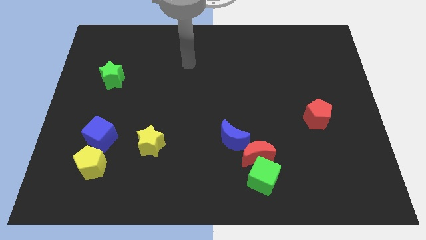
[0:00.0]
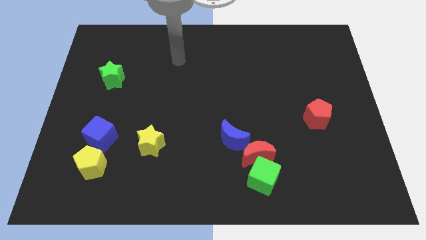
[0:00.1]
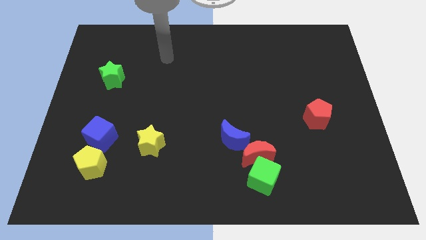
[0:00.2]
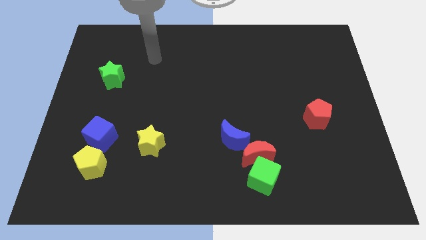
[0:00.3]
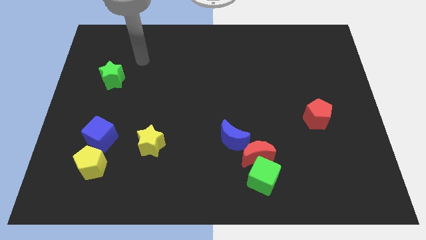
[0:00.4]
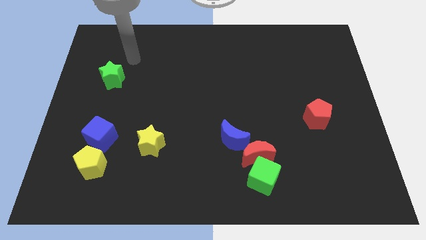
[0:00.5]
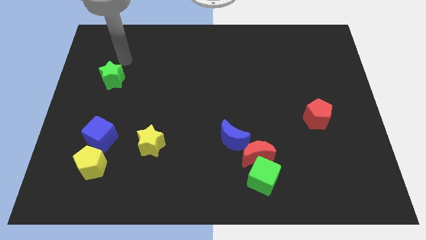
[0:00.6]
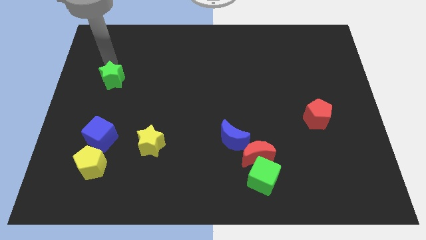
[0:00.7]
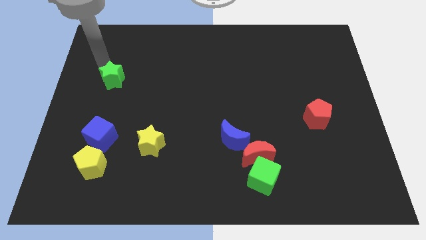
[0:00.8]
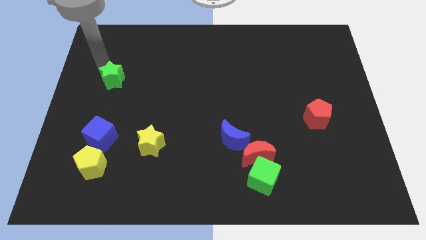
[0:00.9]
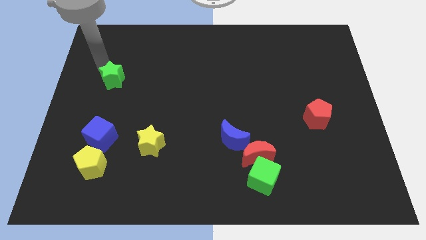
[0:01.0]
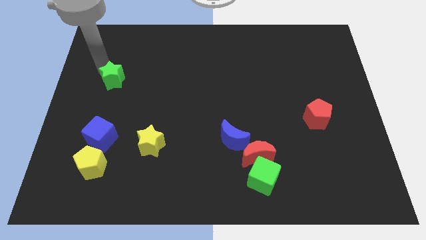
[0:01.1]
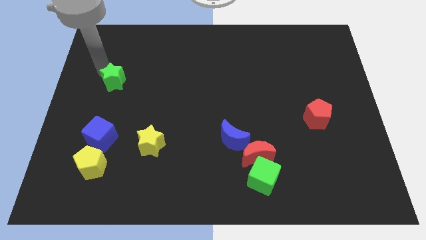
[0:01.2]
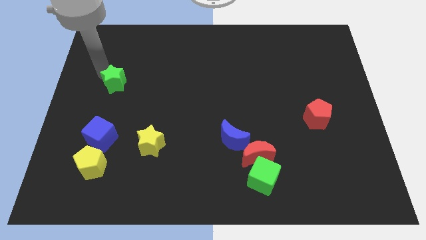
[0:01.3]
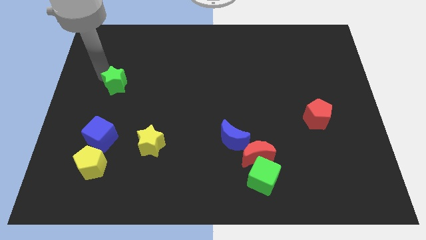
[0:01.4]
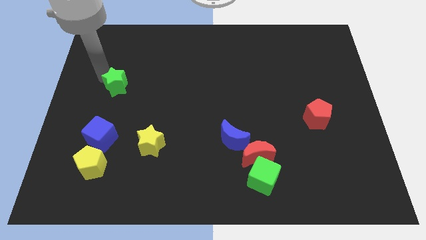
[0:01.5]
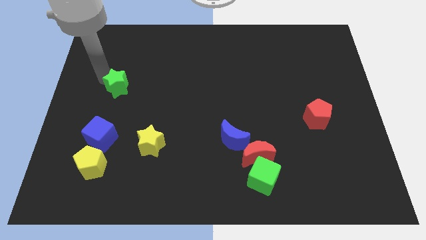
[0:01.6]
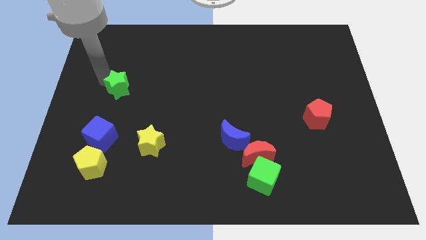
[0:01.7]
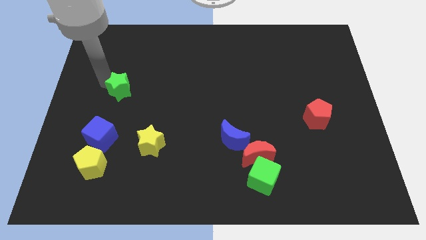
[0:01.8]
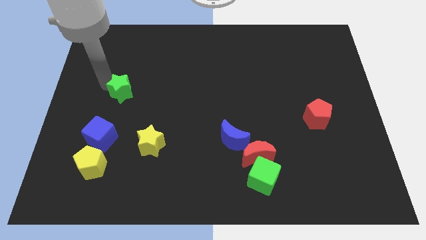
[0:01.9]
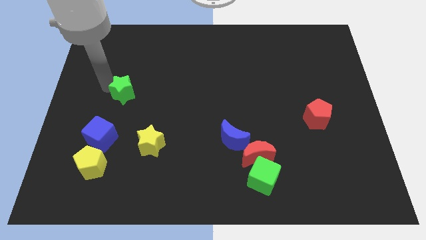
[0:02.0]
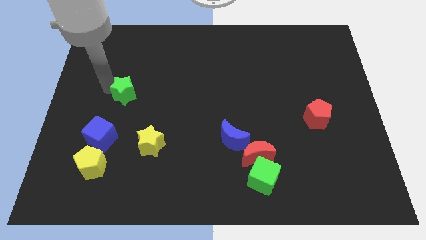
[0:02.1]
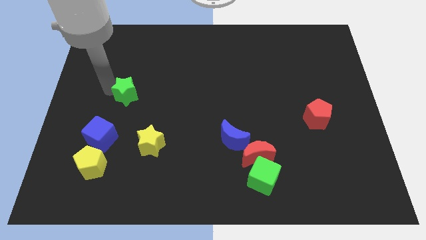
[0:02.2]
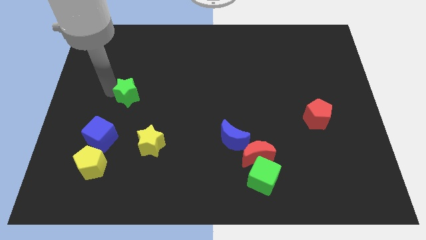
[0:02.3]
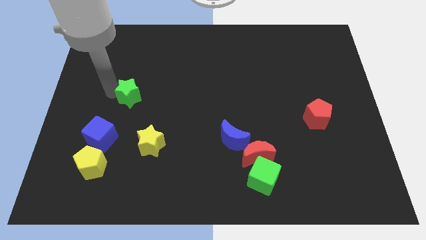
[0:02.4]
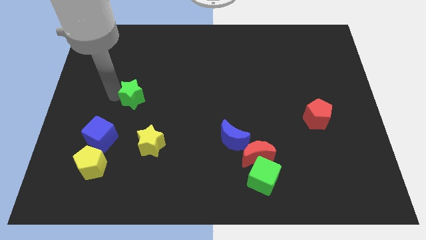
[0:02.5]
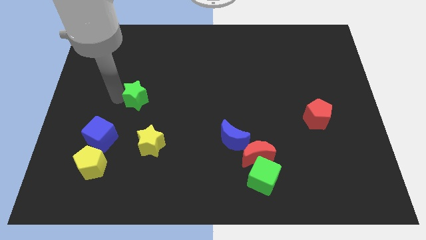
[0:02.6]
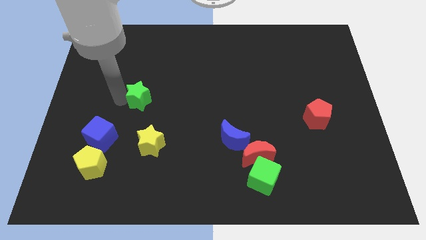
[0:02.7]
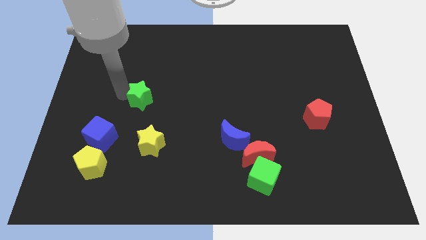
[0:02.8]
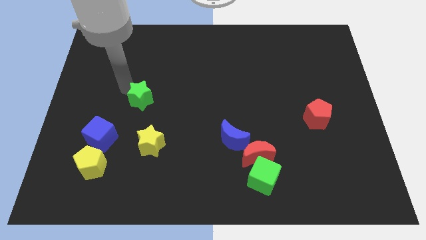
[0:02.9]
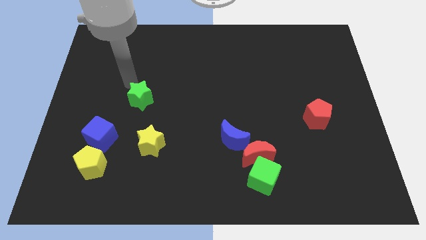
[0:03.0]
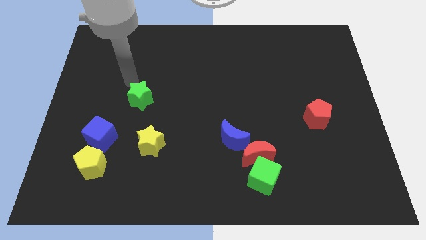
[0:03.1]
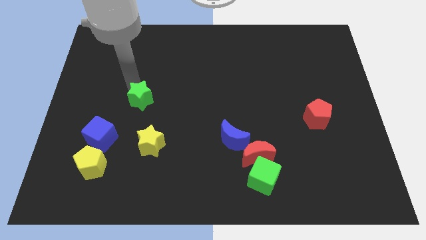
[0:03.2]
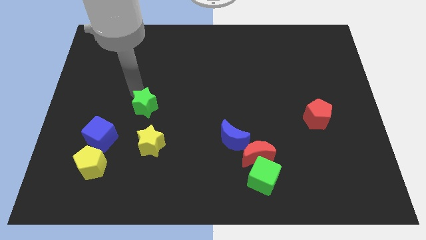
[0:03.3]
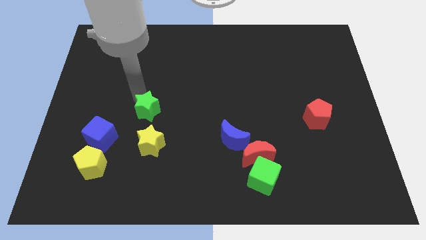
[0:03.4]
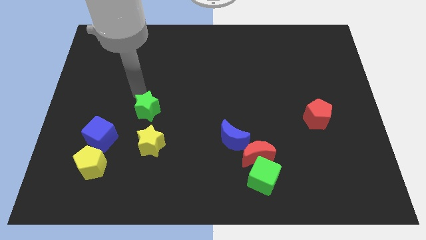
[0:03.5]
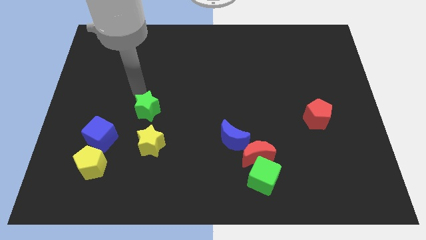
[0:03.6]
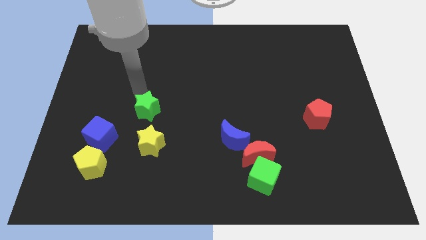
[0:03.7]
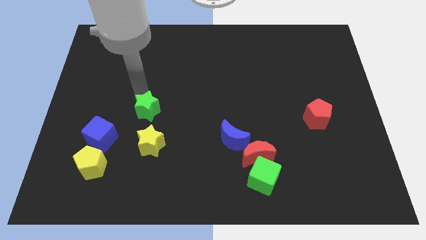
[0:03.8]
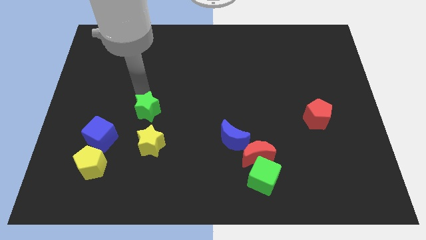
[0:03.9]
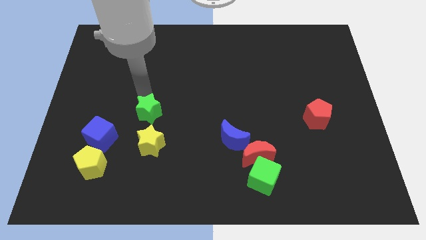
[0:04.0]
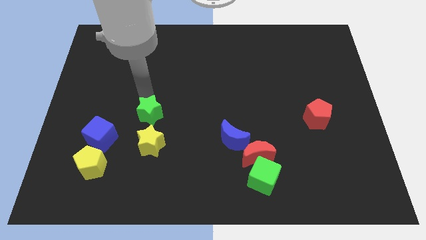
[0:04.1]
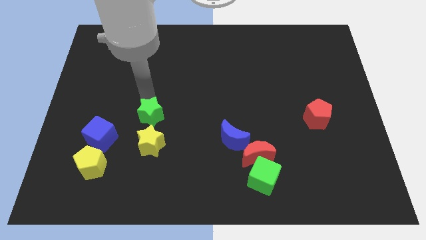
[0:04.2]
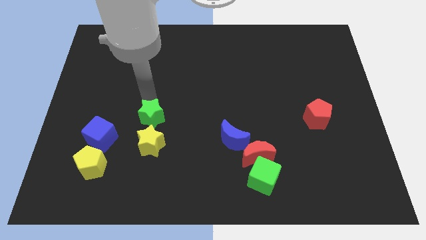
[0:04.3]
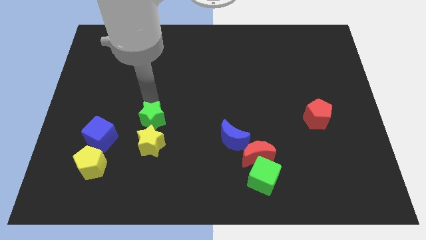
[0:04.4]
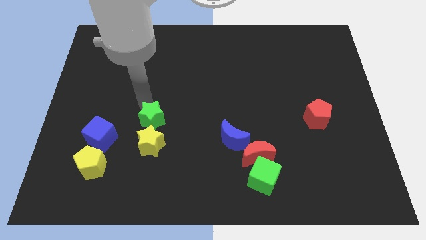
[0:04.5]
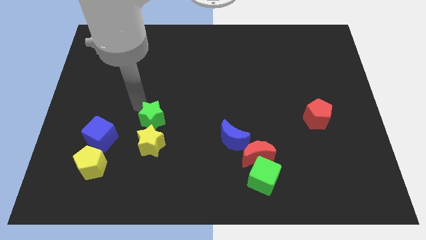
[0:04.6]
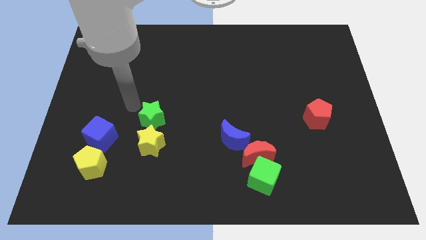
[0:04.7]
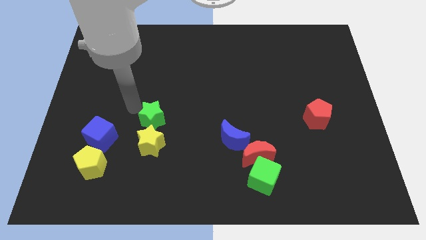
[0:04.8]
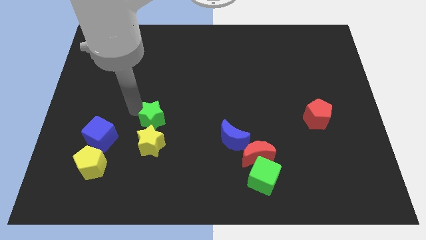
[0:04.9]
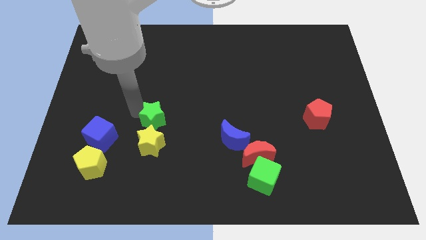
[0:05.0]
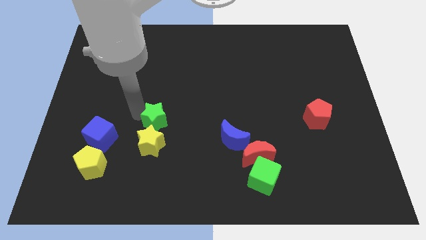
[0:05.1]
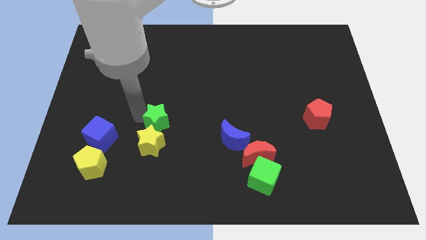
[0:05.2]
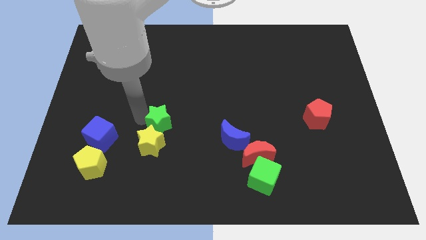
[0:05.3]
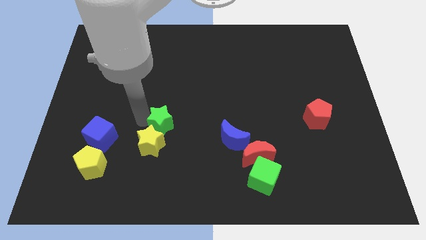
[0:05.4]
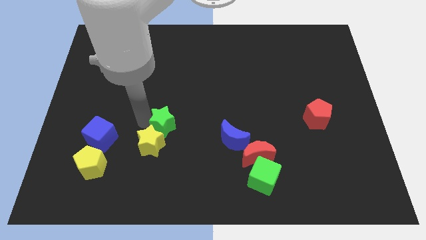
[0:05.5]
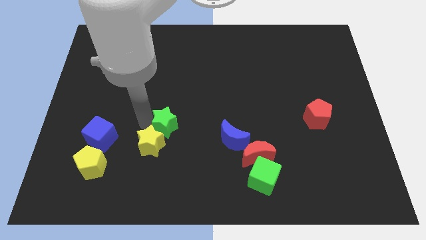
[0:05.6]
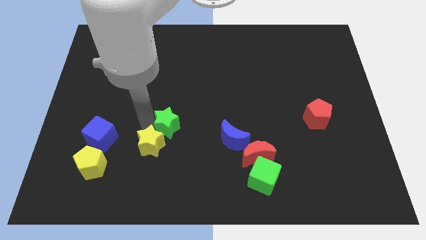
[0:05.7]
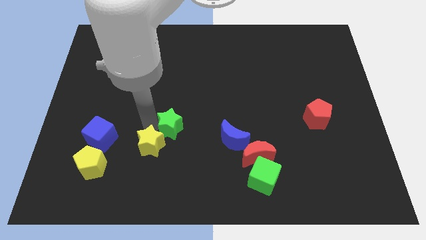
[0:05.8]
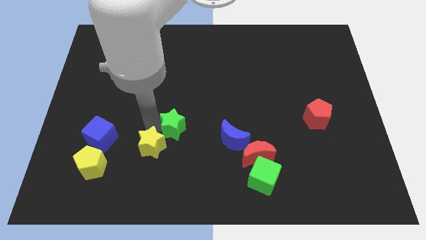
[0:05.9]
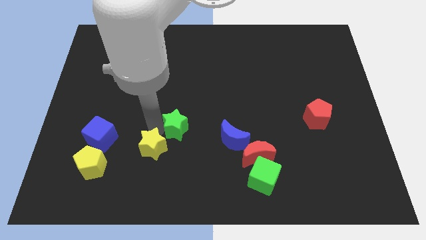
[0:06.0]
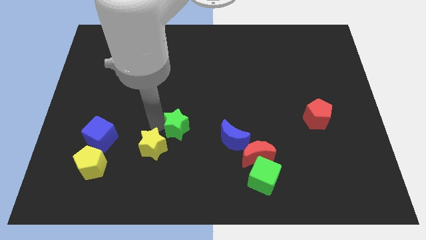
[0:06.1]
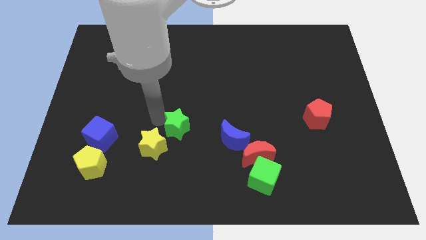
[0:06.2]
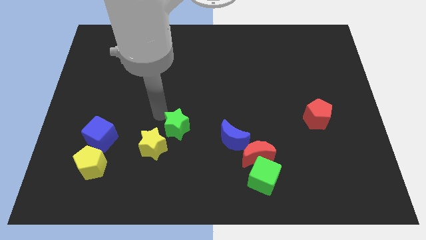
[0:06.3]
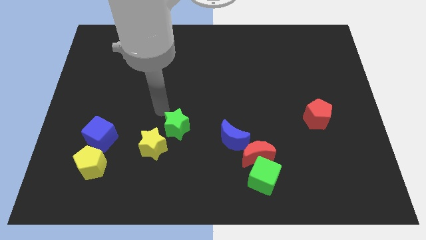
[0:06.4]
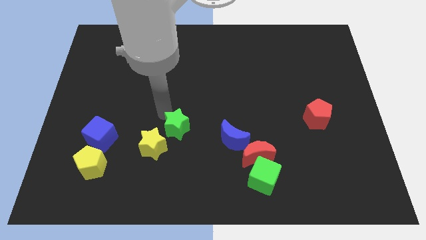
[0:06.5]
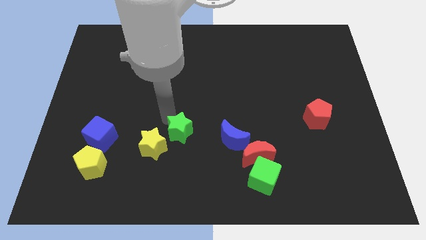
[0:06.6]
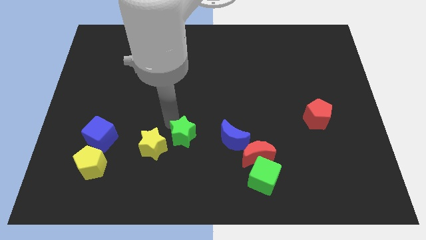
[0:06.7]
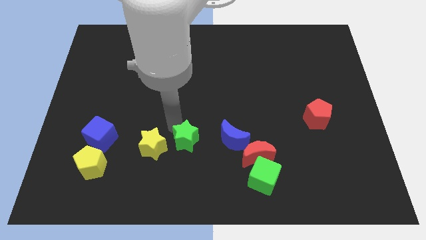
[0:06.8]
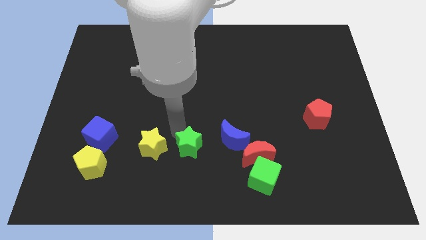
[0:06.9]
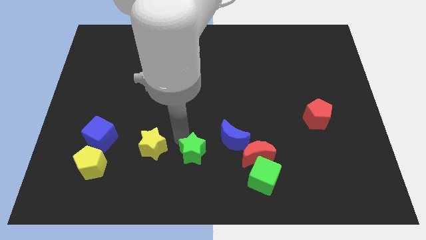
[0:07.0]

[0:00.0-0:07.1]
put the green star to the bottom left side of the blue moon
